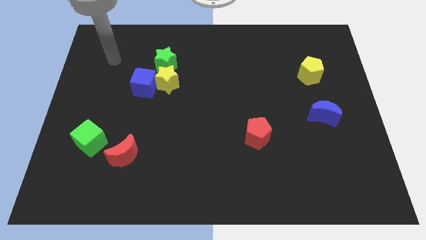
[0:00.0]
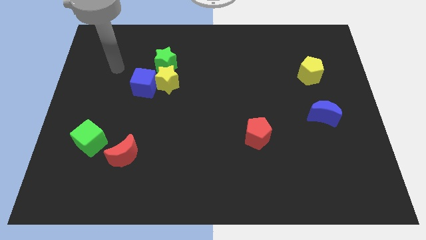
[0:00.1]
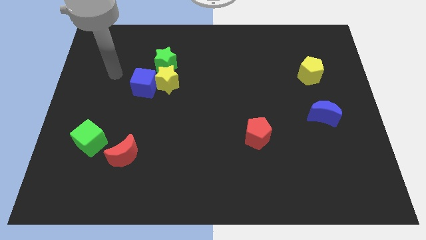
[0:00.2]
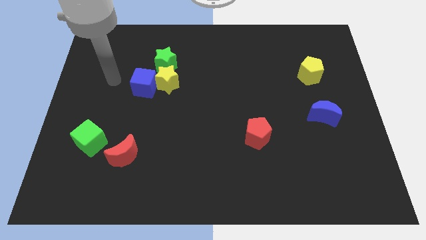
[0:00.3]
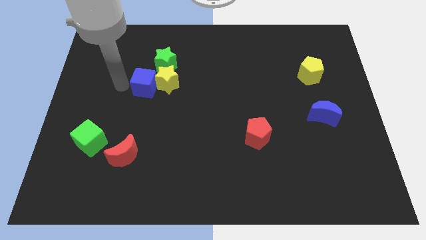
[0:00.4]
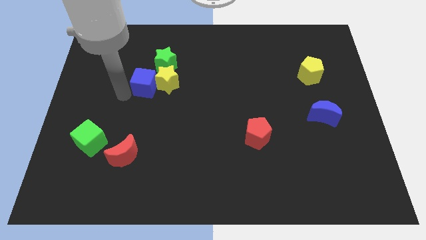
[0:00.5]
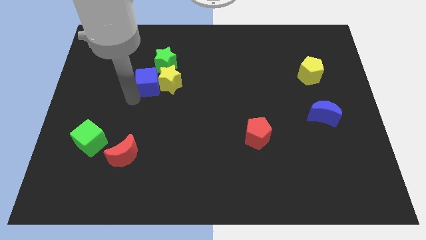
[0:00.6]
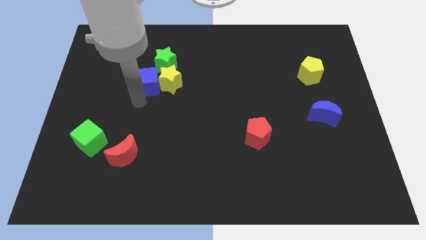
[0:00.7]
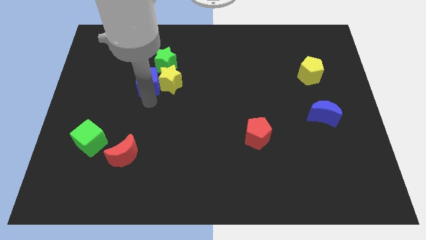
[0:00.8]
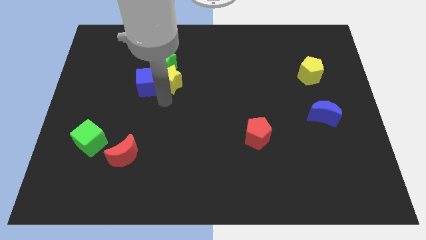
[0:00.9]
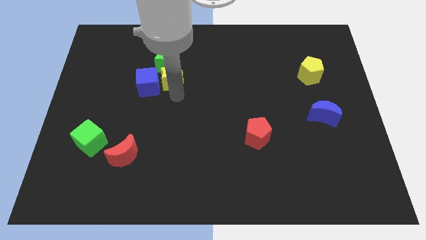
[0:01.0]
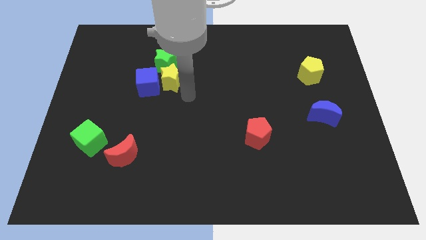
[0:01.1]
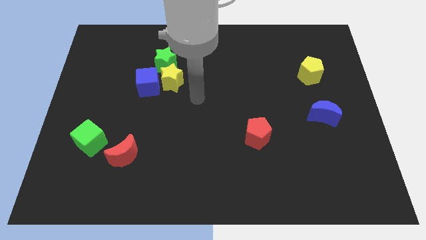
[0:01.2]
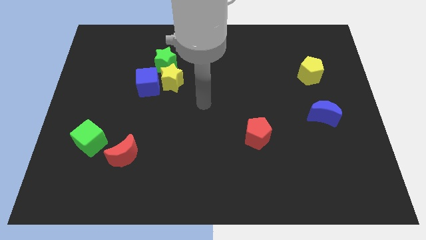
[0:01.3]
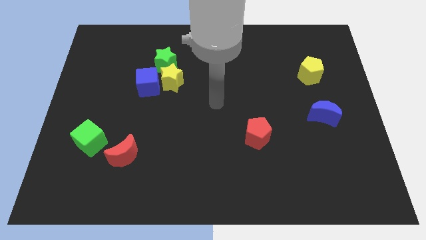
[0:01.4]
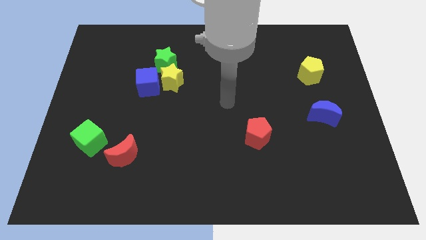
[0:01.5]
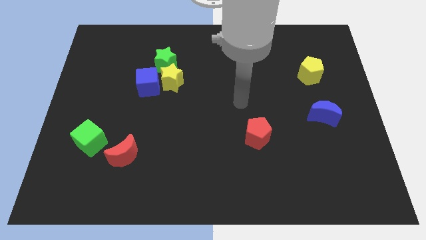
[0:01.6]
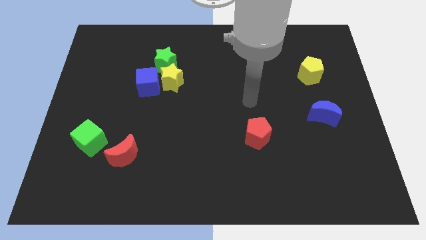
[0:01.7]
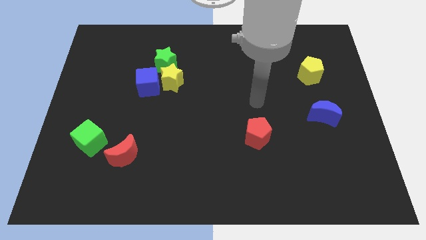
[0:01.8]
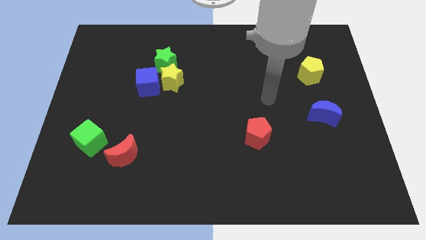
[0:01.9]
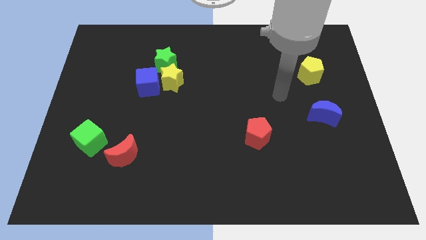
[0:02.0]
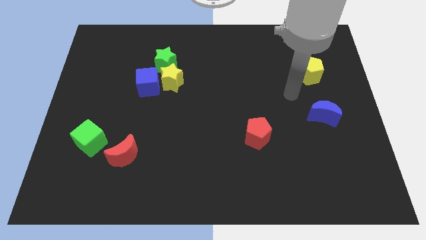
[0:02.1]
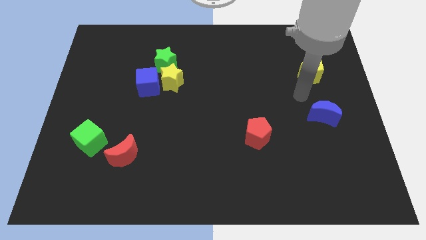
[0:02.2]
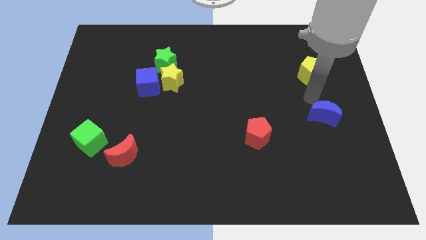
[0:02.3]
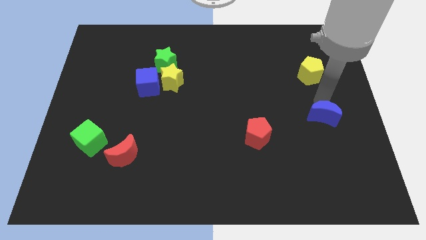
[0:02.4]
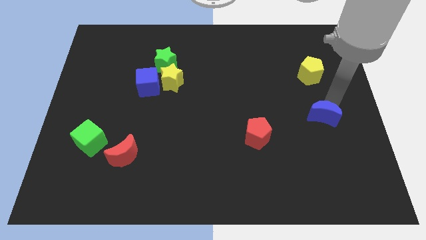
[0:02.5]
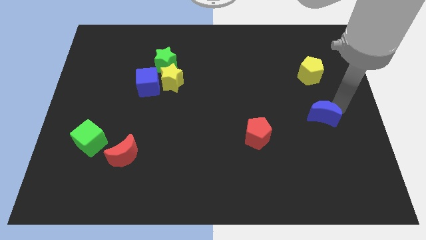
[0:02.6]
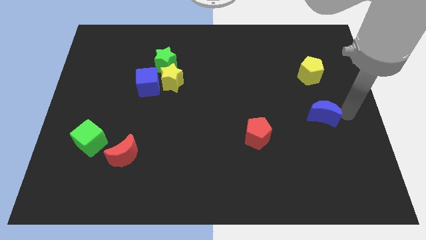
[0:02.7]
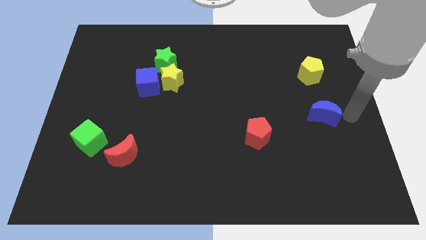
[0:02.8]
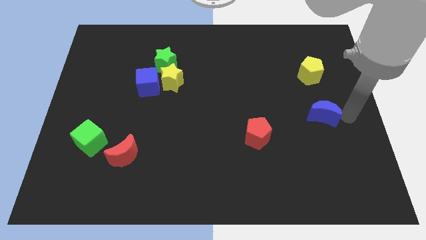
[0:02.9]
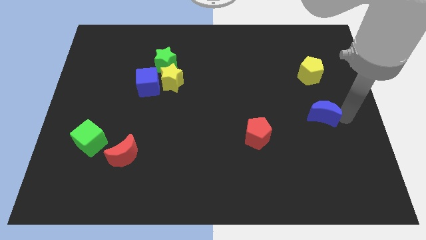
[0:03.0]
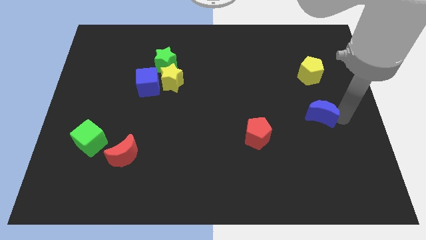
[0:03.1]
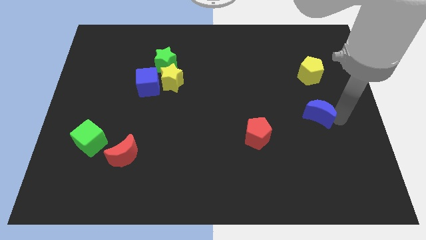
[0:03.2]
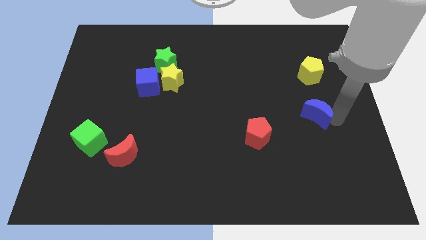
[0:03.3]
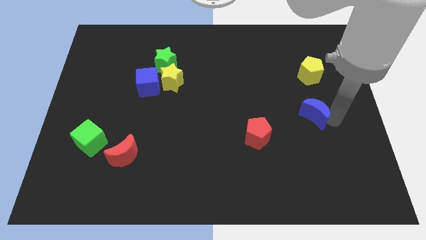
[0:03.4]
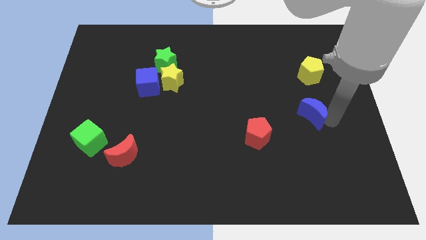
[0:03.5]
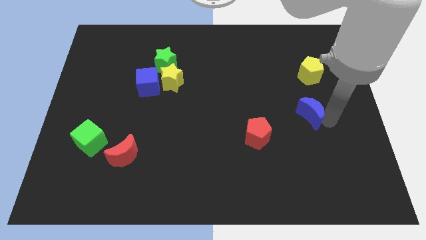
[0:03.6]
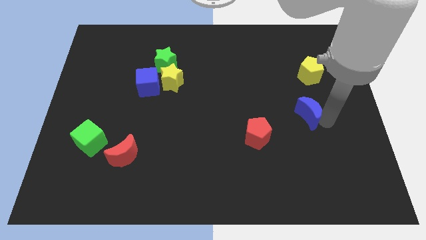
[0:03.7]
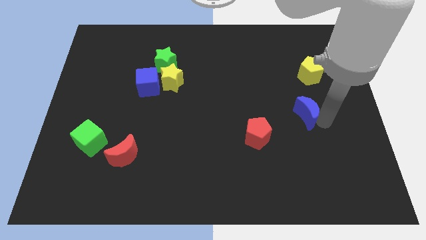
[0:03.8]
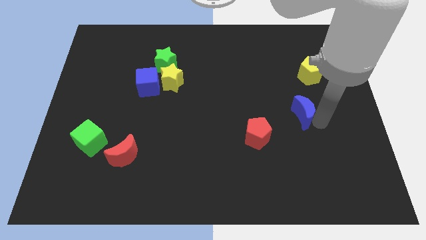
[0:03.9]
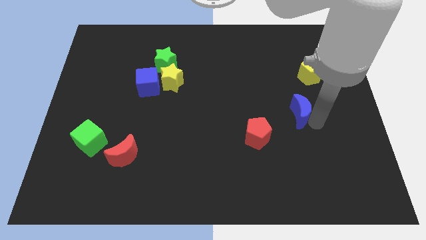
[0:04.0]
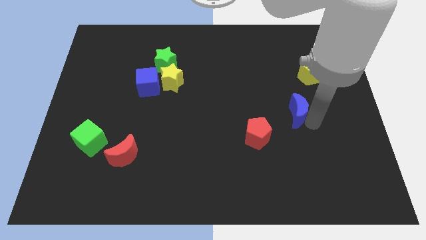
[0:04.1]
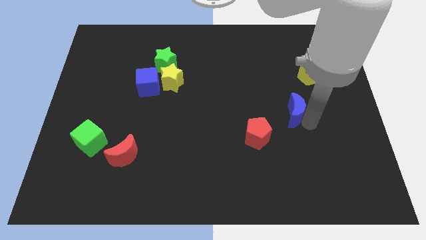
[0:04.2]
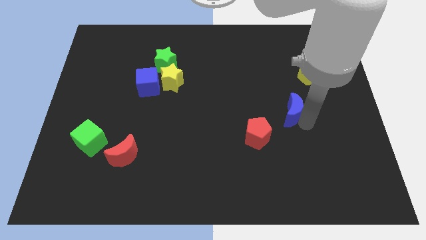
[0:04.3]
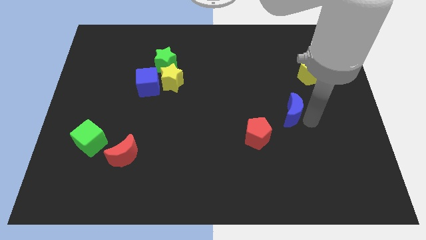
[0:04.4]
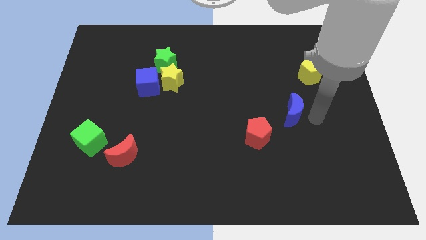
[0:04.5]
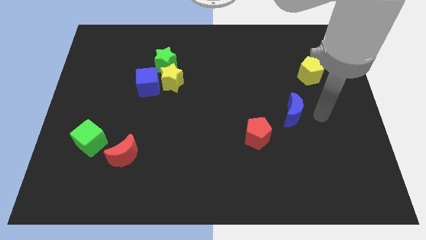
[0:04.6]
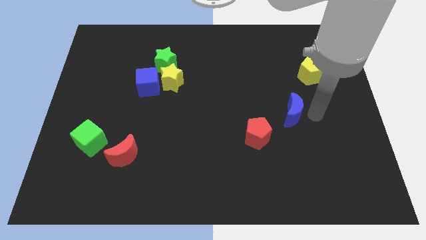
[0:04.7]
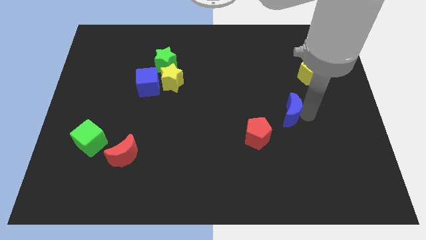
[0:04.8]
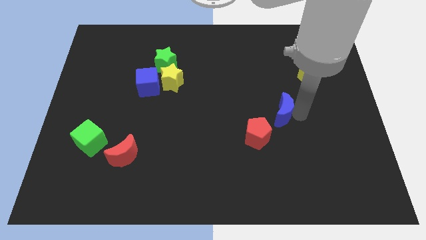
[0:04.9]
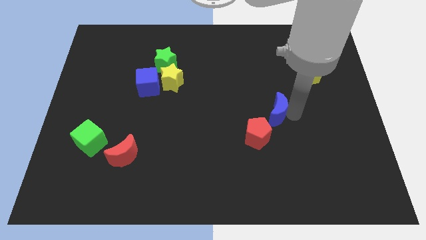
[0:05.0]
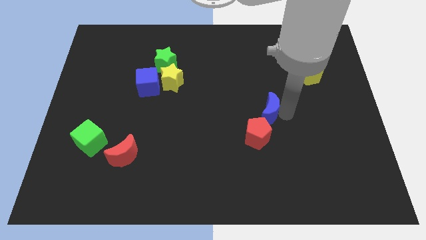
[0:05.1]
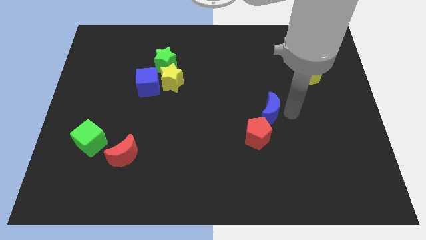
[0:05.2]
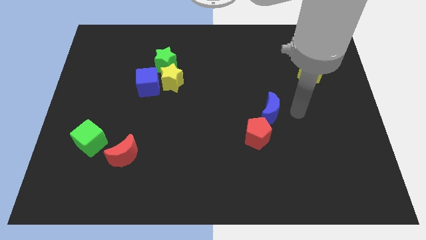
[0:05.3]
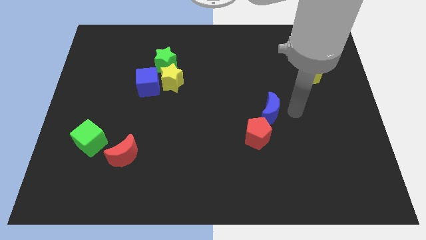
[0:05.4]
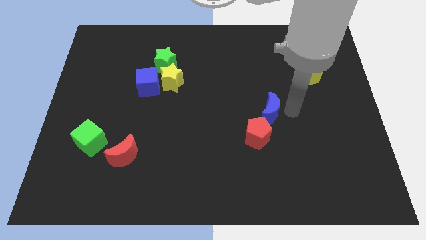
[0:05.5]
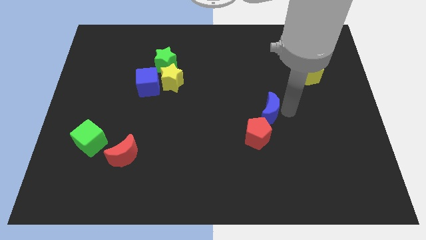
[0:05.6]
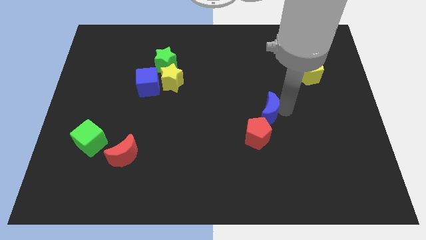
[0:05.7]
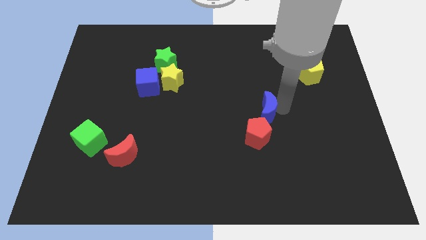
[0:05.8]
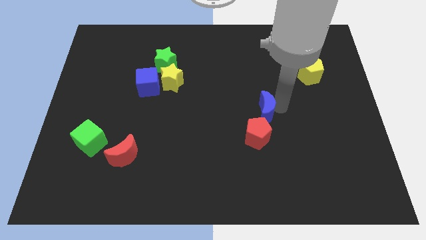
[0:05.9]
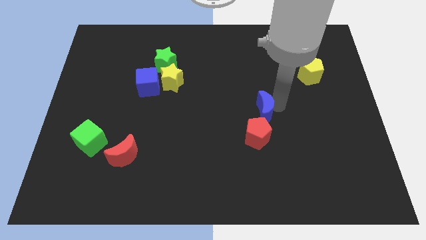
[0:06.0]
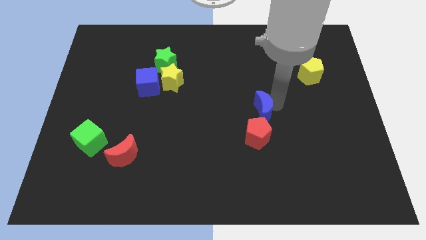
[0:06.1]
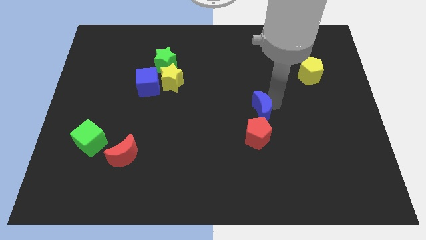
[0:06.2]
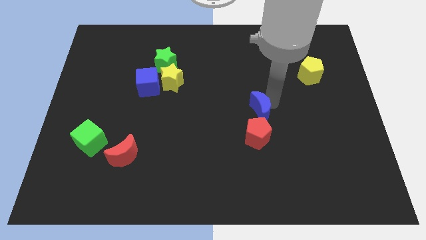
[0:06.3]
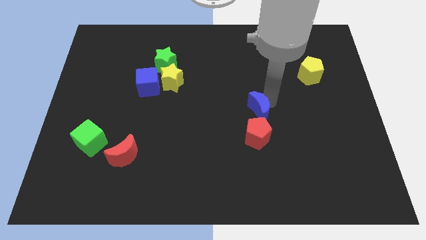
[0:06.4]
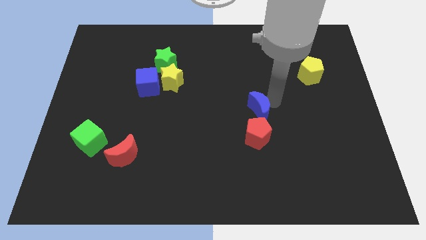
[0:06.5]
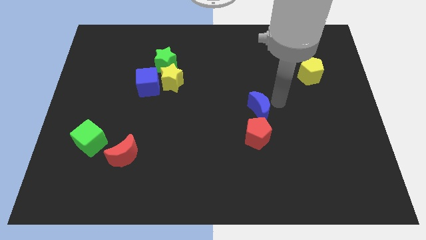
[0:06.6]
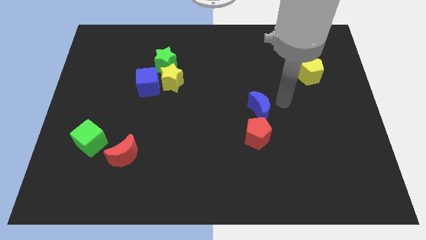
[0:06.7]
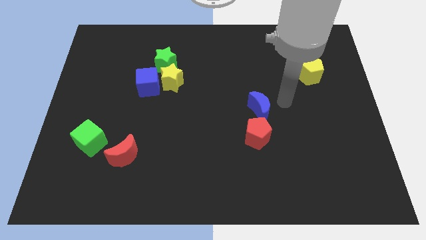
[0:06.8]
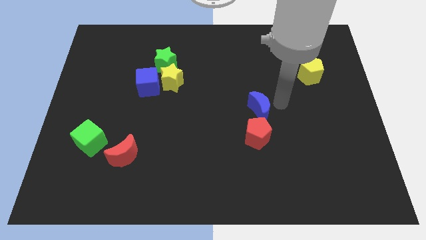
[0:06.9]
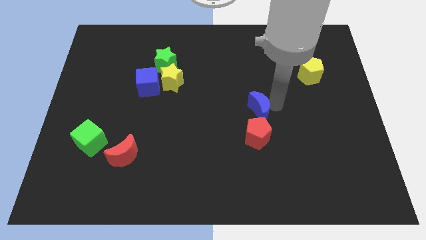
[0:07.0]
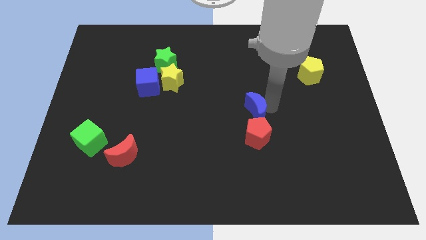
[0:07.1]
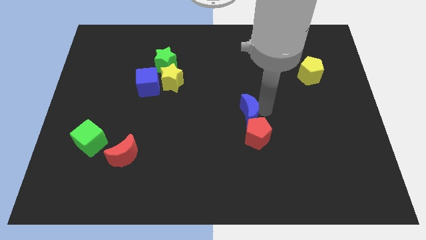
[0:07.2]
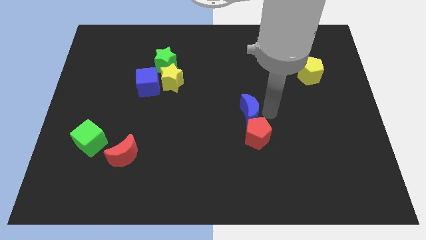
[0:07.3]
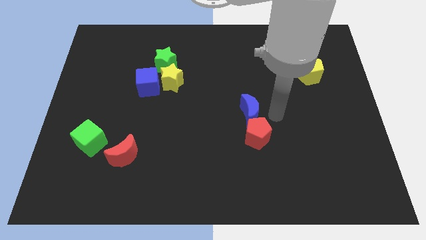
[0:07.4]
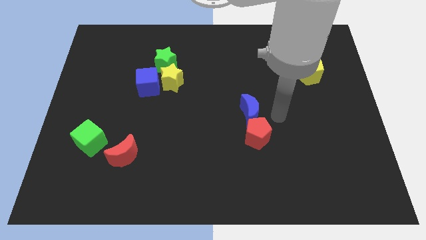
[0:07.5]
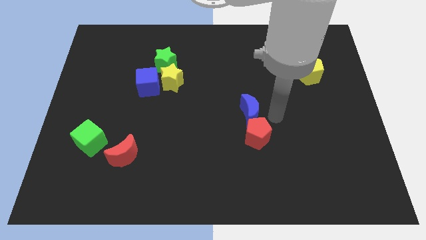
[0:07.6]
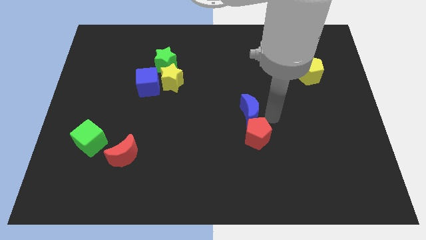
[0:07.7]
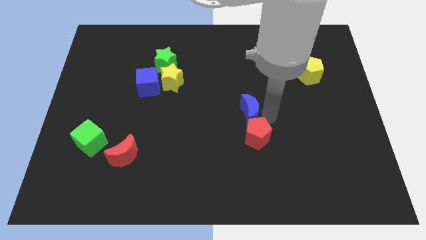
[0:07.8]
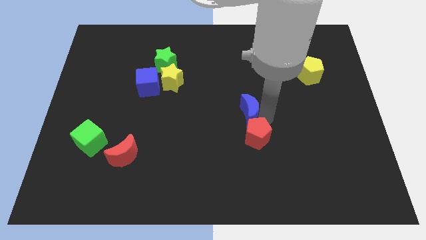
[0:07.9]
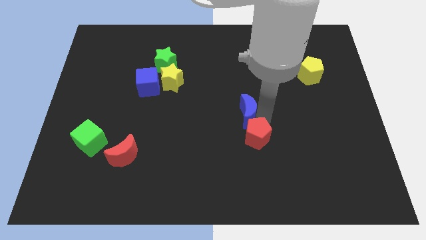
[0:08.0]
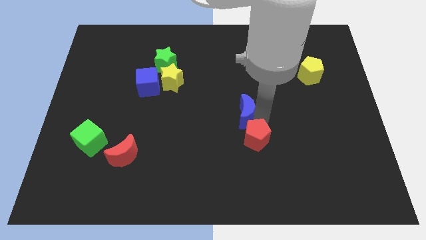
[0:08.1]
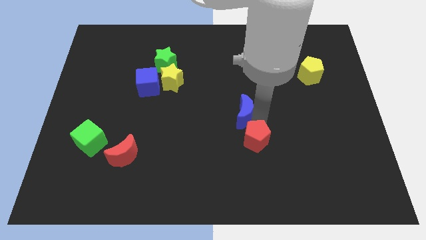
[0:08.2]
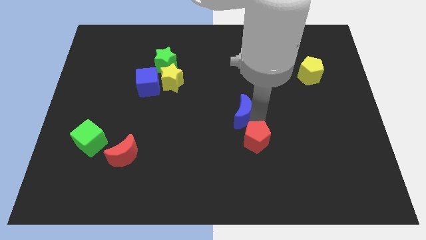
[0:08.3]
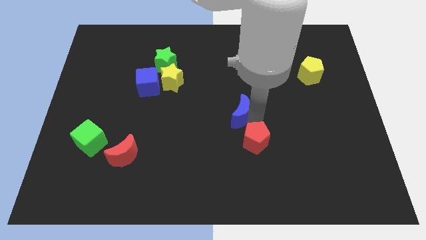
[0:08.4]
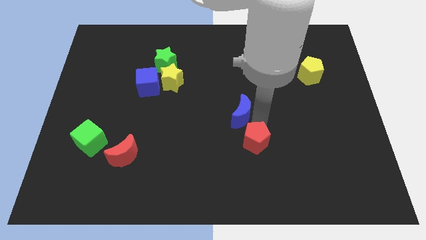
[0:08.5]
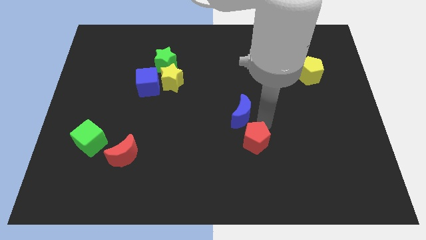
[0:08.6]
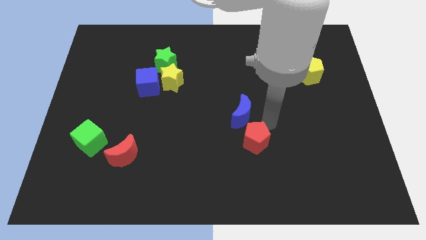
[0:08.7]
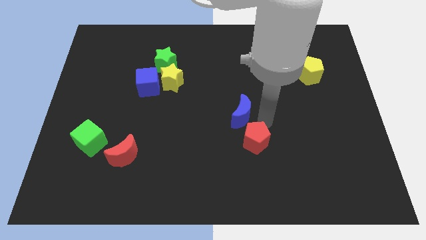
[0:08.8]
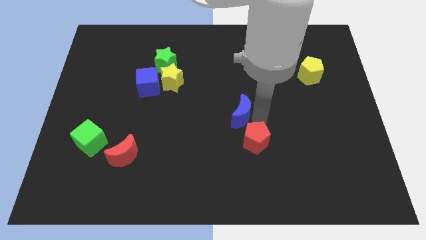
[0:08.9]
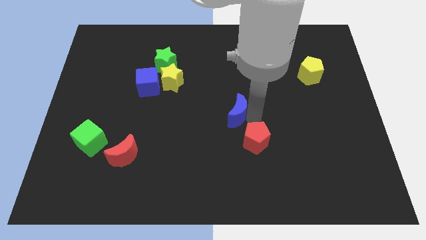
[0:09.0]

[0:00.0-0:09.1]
slide the blue moon to the left
